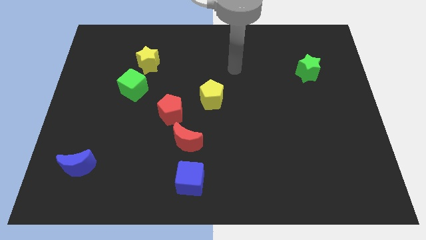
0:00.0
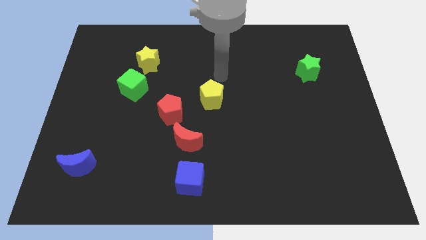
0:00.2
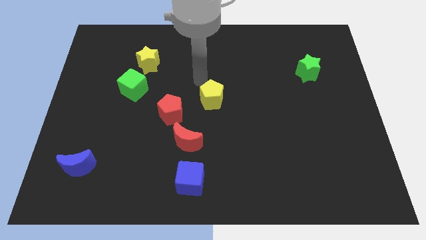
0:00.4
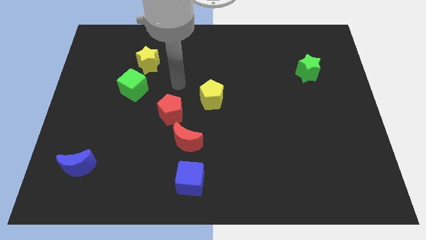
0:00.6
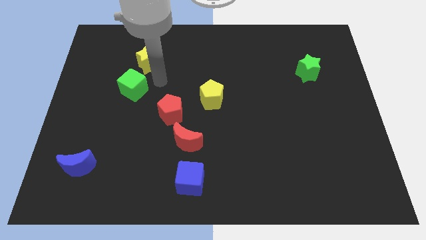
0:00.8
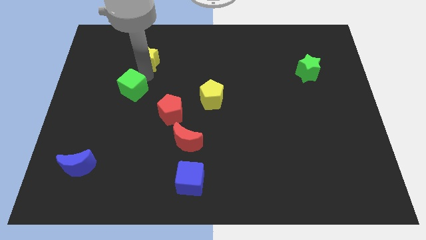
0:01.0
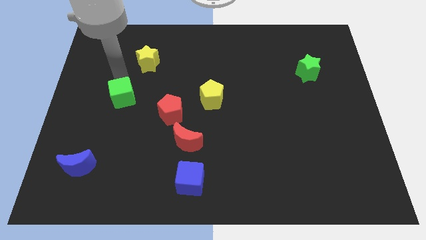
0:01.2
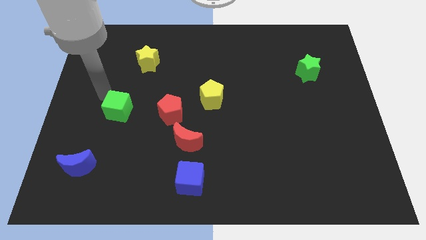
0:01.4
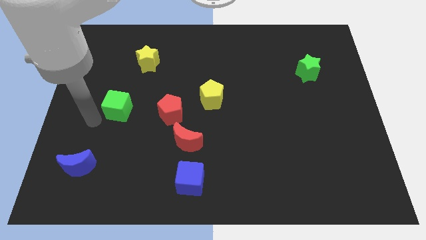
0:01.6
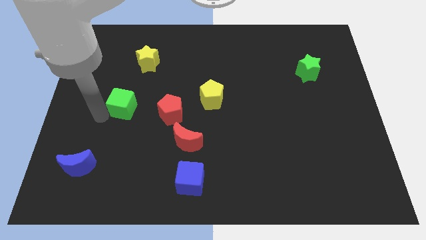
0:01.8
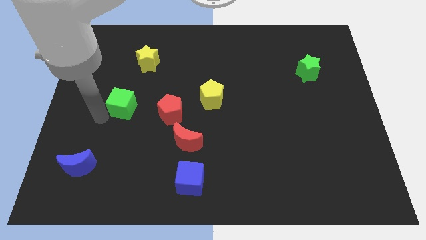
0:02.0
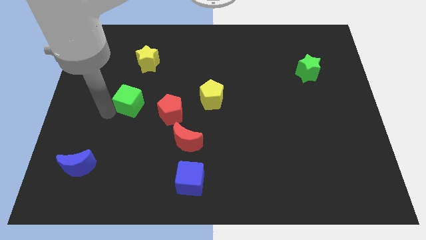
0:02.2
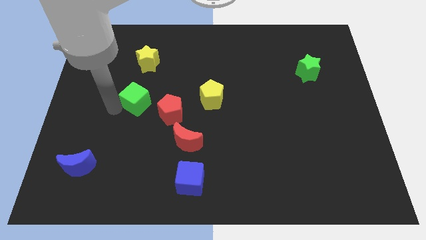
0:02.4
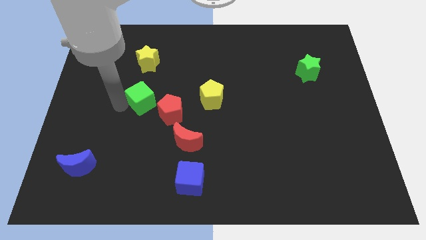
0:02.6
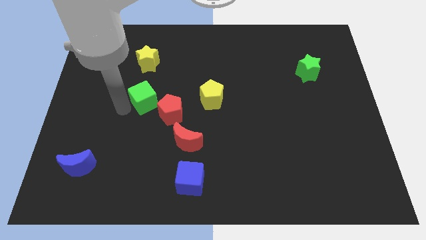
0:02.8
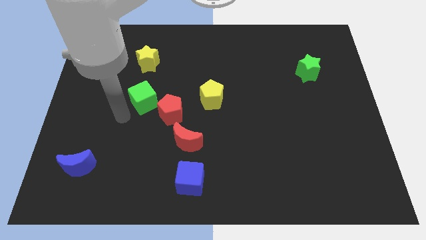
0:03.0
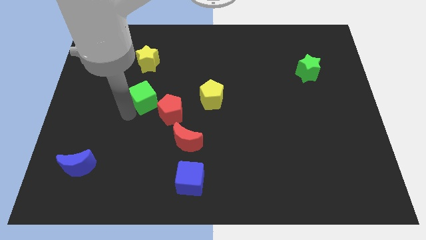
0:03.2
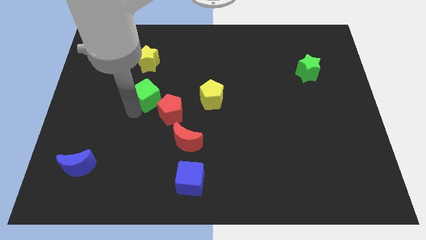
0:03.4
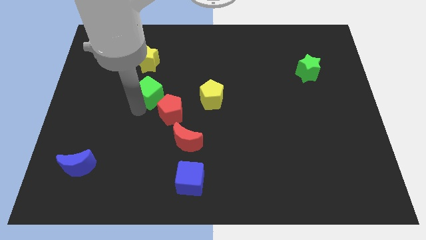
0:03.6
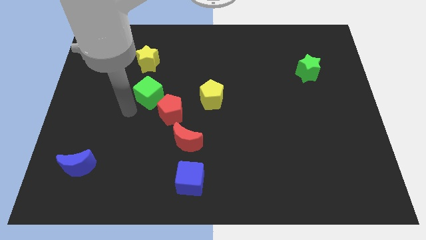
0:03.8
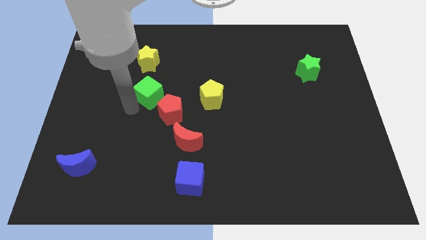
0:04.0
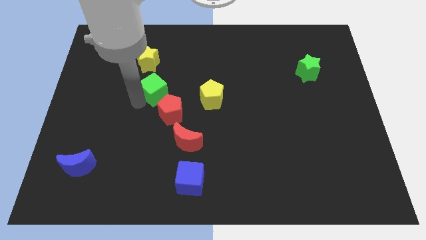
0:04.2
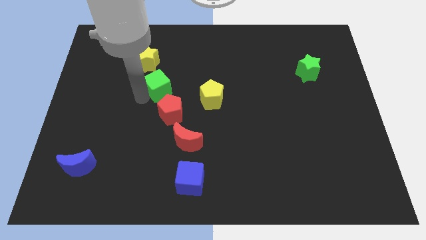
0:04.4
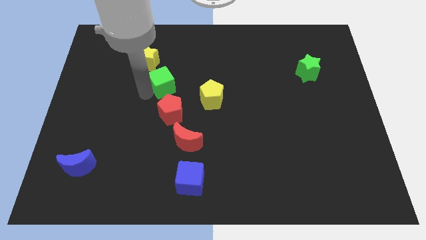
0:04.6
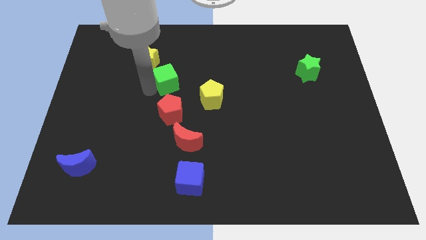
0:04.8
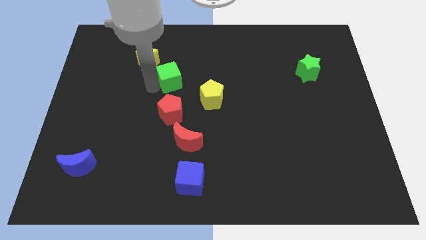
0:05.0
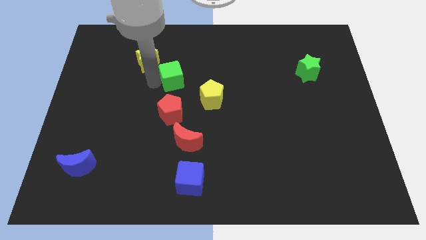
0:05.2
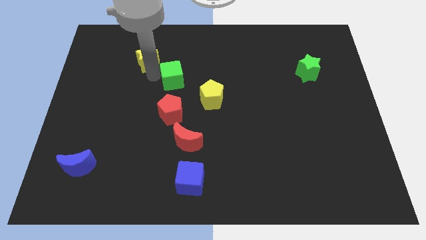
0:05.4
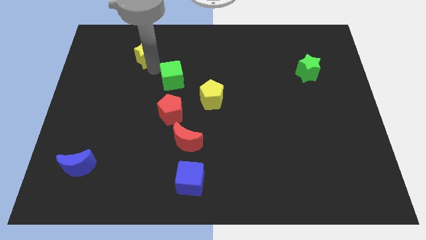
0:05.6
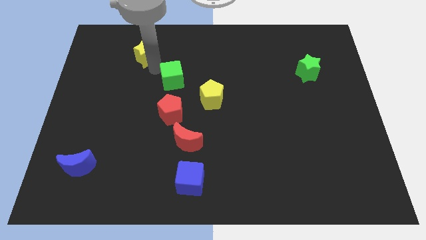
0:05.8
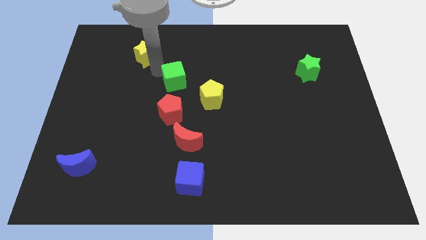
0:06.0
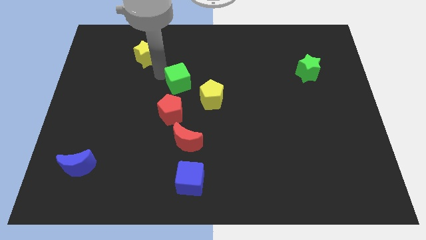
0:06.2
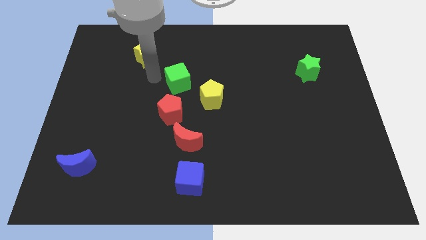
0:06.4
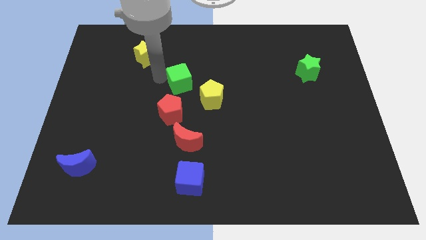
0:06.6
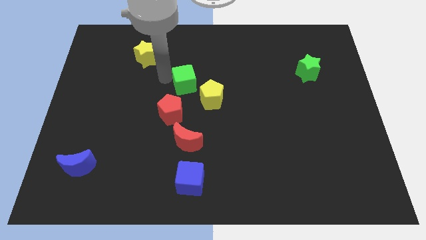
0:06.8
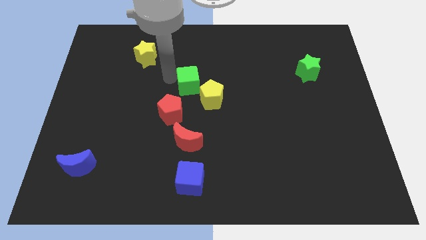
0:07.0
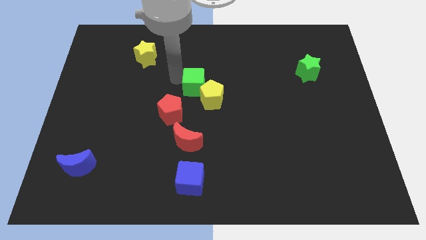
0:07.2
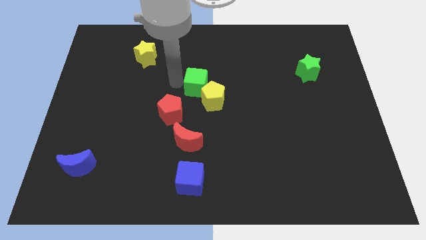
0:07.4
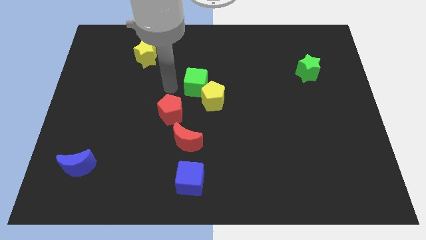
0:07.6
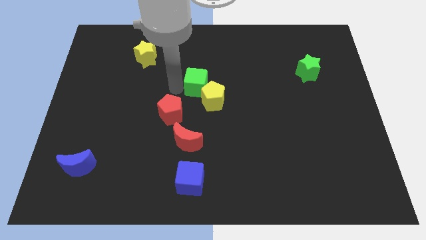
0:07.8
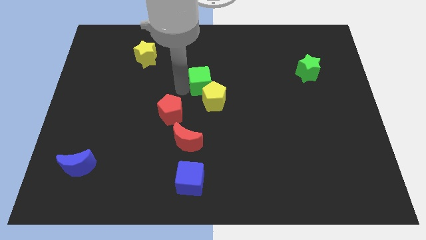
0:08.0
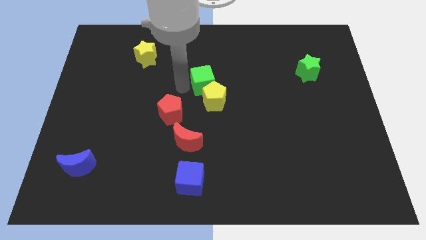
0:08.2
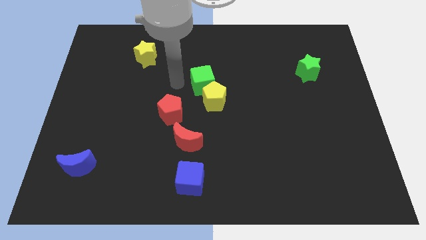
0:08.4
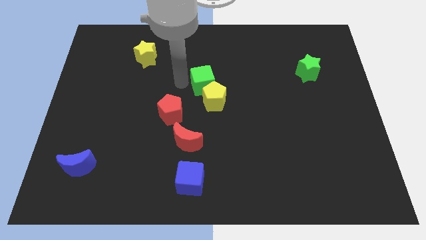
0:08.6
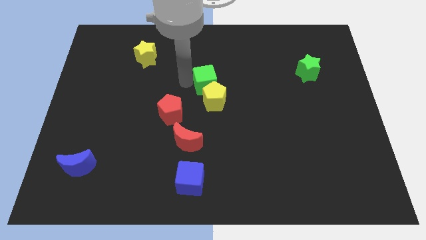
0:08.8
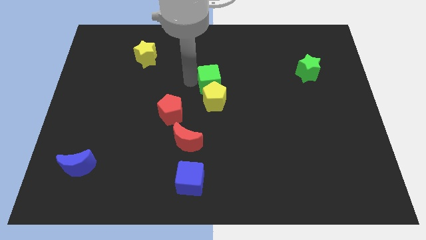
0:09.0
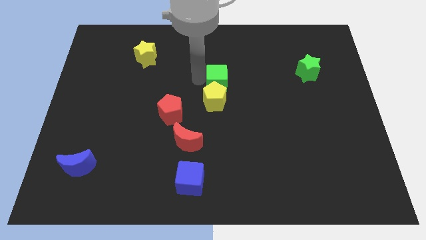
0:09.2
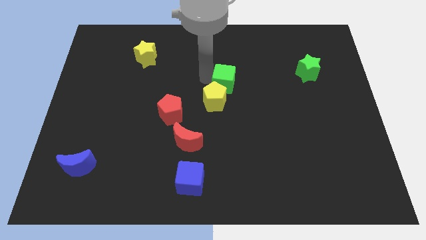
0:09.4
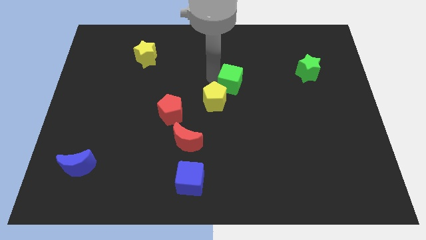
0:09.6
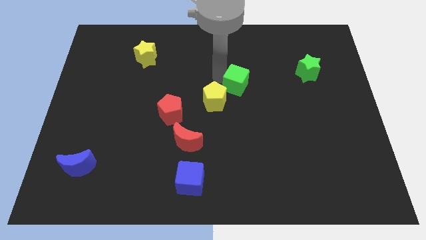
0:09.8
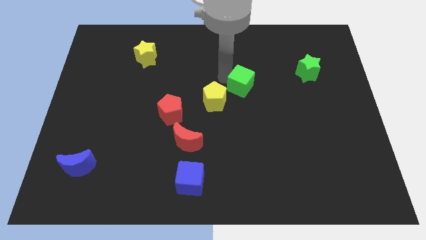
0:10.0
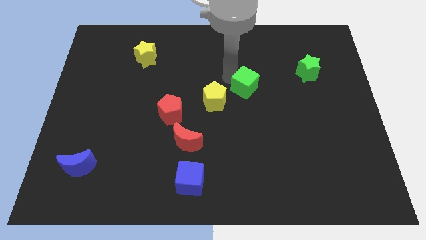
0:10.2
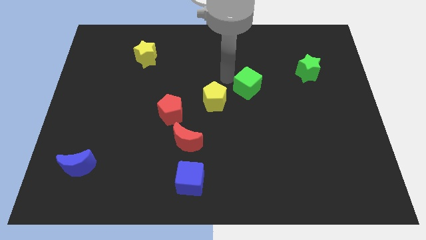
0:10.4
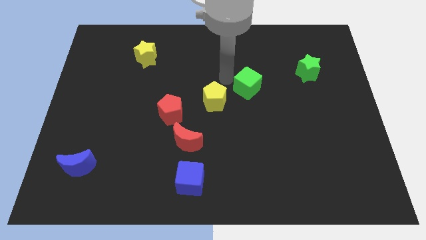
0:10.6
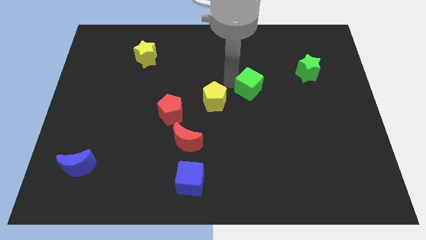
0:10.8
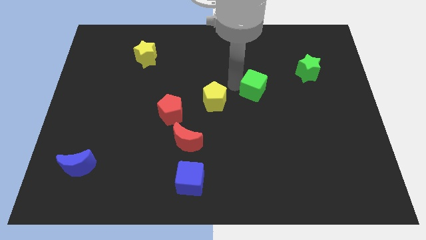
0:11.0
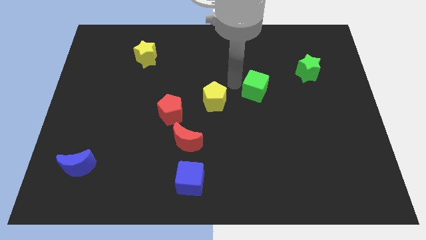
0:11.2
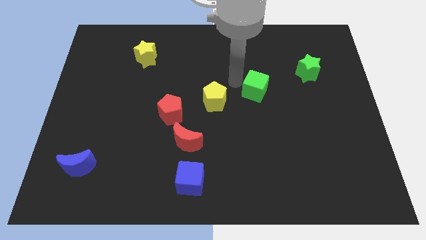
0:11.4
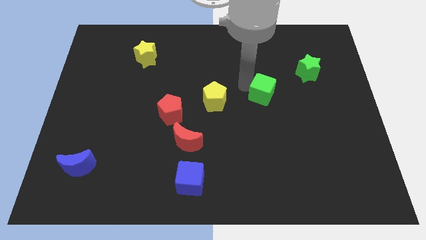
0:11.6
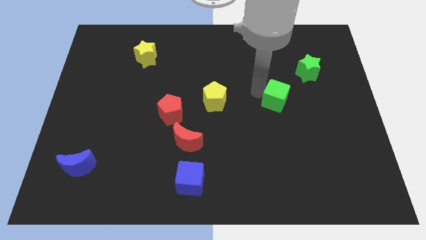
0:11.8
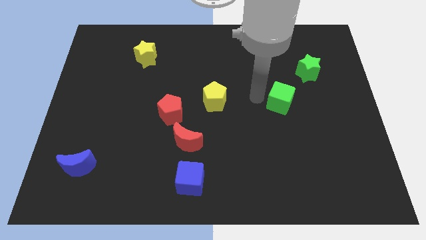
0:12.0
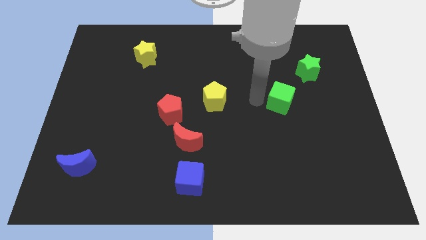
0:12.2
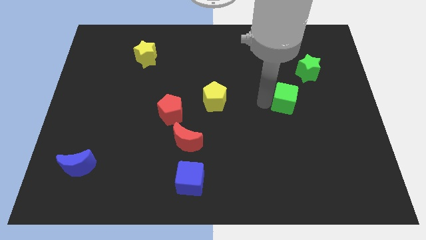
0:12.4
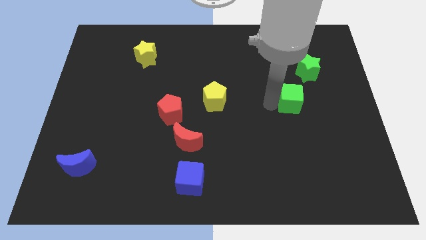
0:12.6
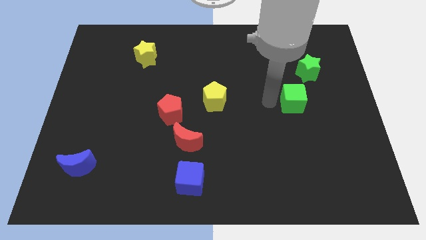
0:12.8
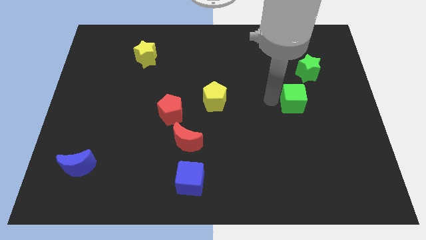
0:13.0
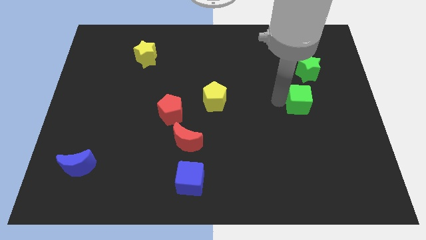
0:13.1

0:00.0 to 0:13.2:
move the green cube to the bottom of the green star

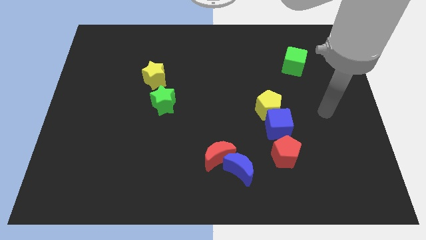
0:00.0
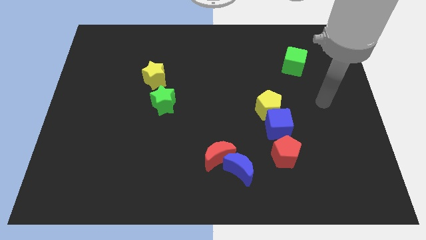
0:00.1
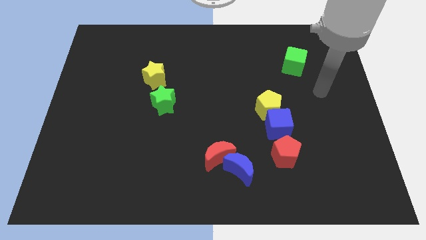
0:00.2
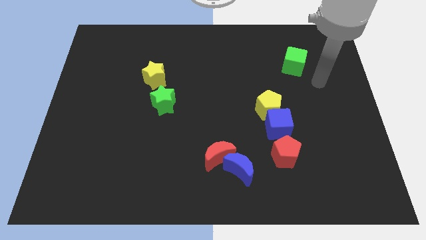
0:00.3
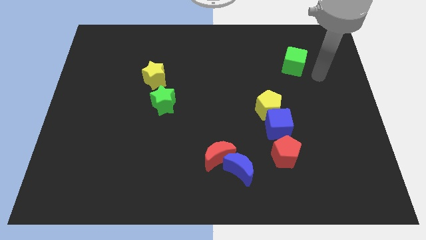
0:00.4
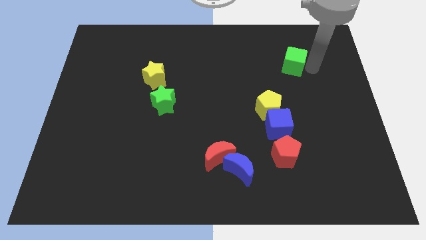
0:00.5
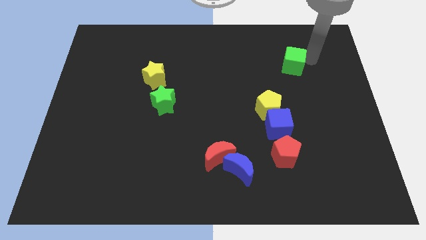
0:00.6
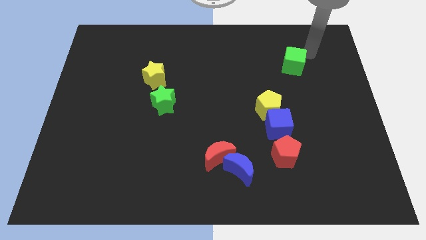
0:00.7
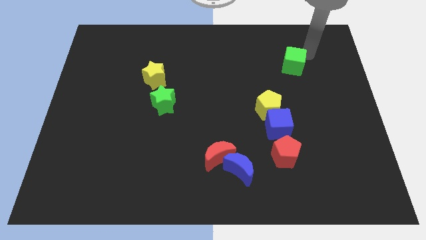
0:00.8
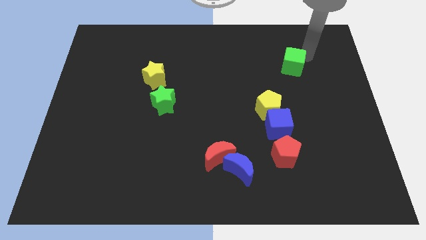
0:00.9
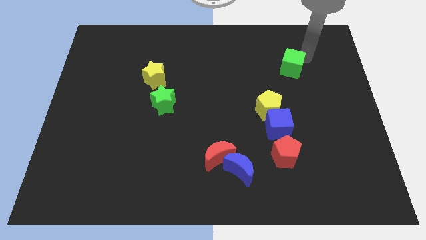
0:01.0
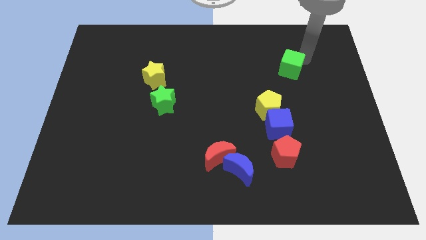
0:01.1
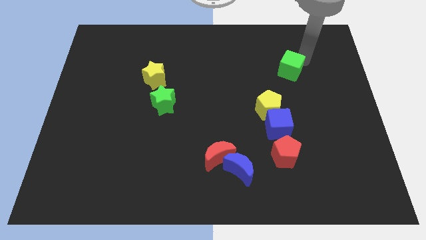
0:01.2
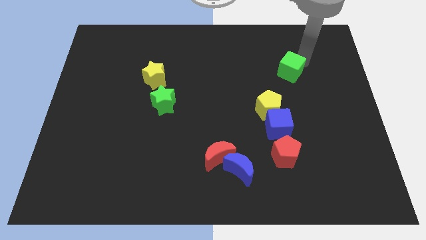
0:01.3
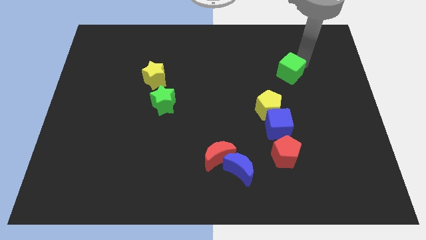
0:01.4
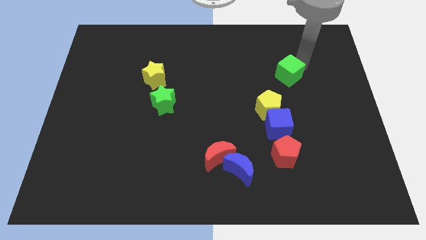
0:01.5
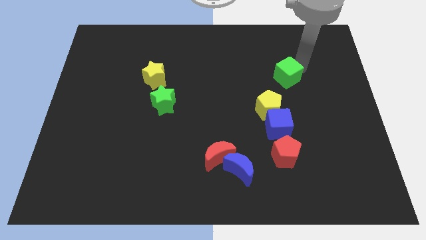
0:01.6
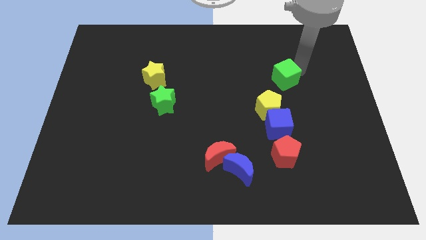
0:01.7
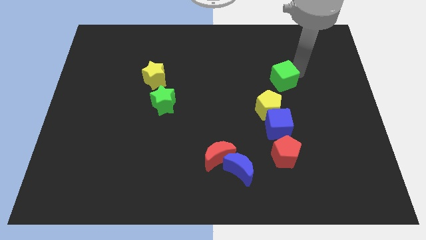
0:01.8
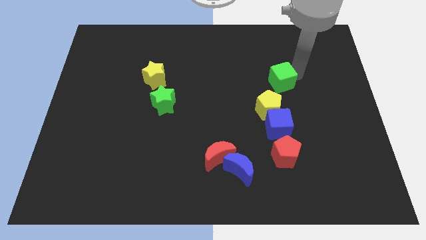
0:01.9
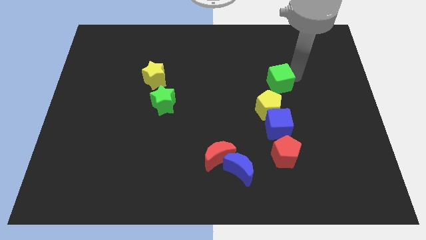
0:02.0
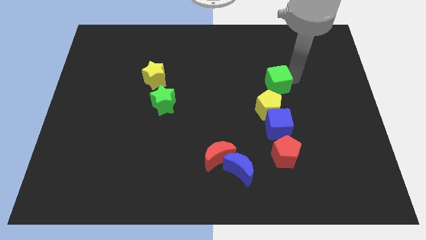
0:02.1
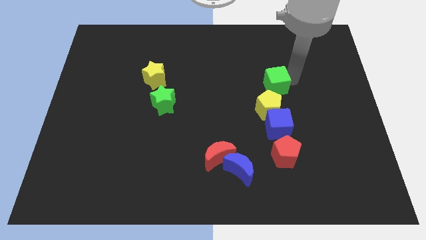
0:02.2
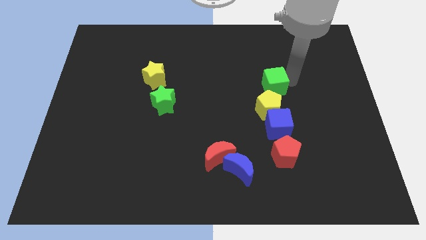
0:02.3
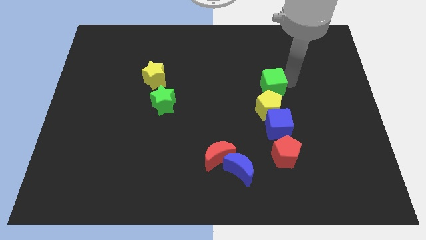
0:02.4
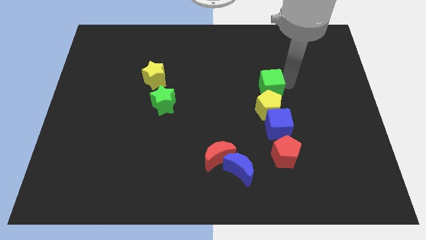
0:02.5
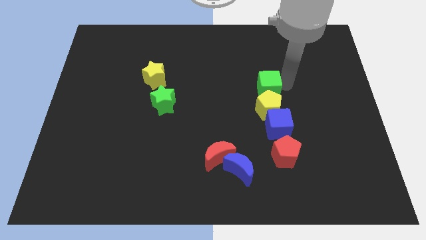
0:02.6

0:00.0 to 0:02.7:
slide the green cube to the top left of the yellow pentagon
